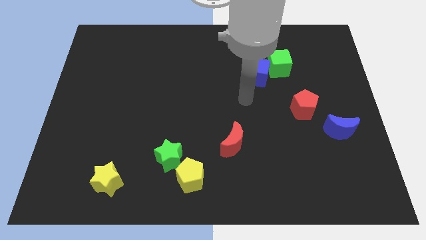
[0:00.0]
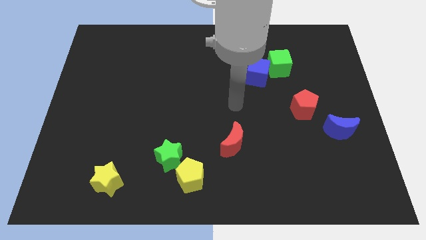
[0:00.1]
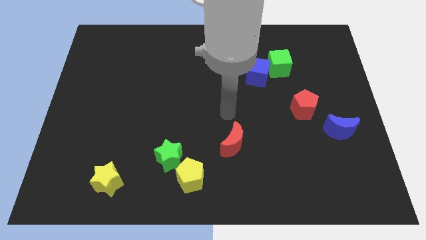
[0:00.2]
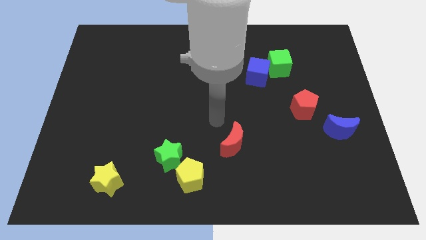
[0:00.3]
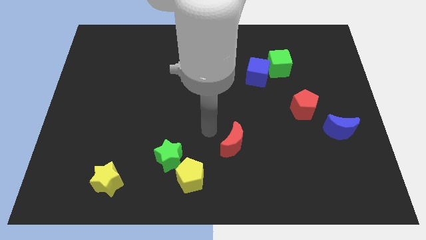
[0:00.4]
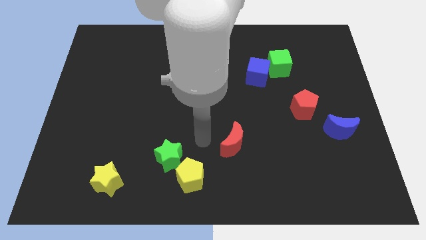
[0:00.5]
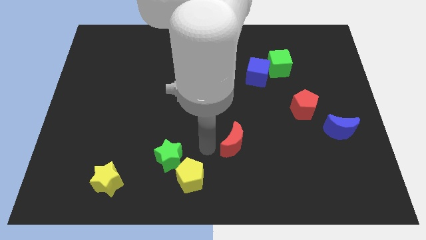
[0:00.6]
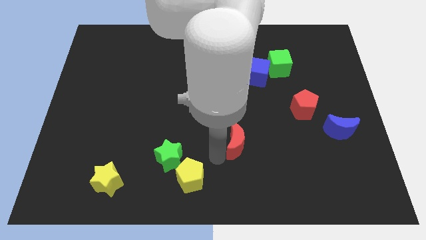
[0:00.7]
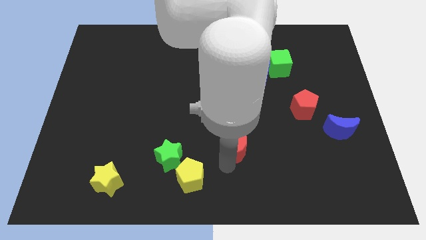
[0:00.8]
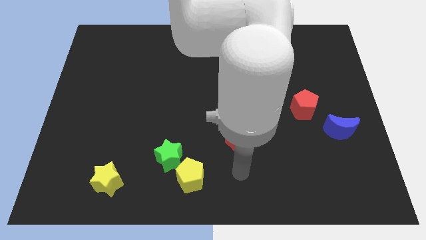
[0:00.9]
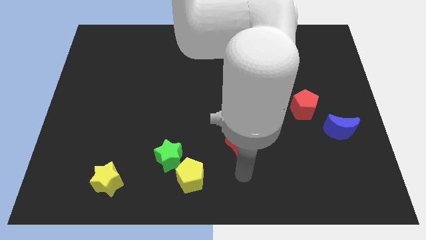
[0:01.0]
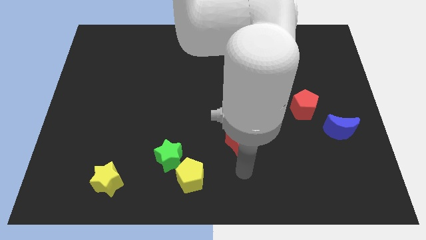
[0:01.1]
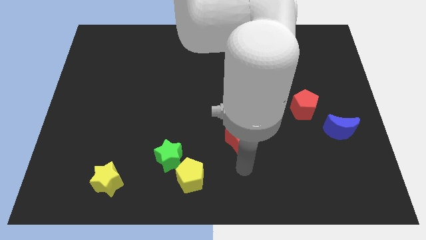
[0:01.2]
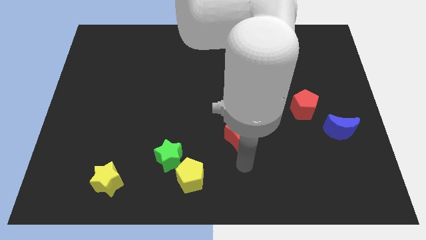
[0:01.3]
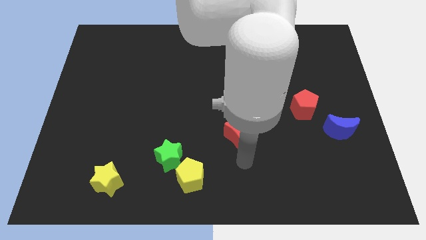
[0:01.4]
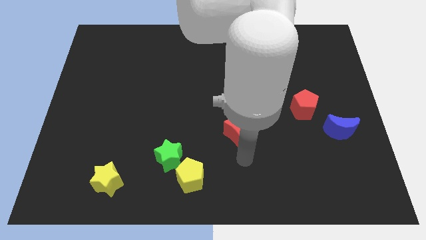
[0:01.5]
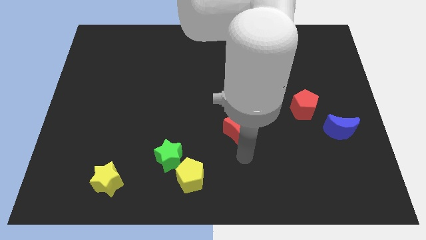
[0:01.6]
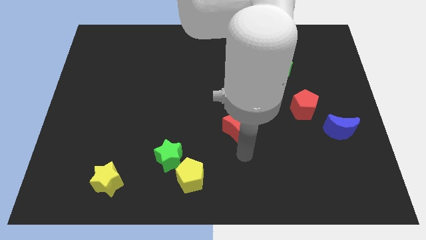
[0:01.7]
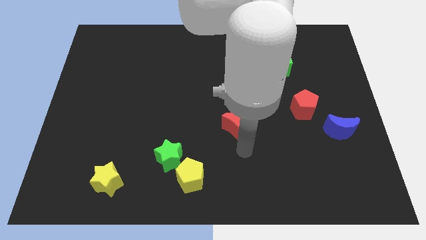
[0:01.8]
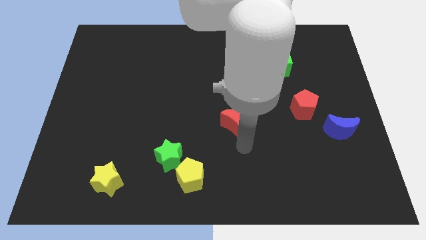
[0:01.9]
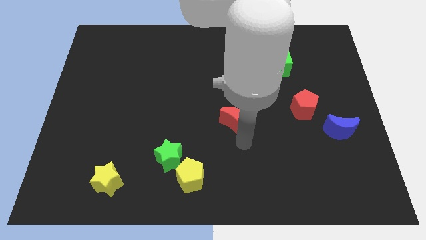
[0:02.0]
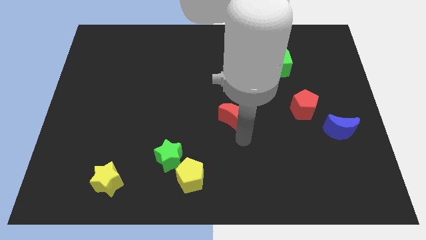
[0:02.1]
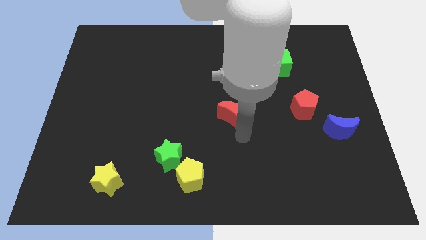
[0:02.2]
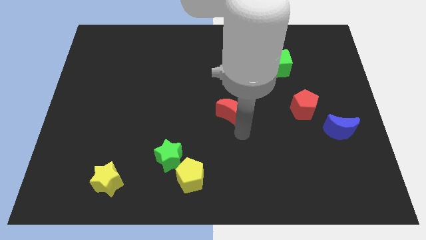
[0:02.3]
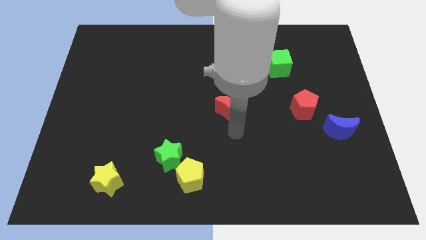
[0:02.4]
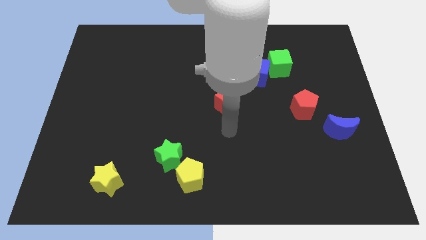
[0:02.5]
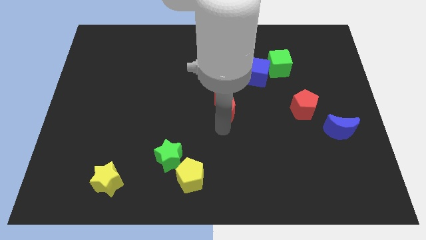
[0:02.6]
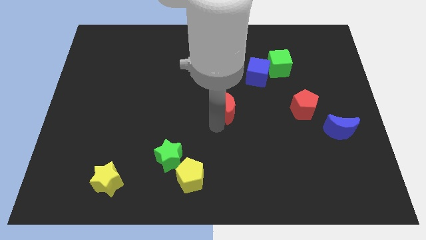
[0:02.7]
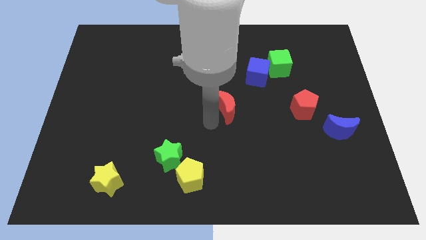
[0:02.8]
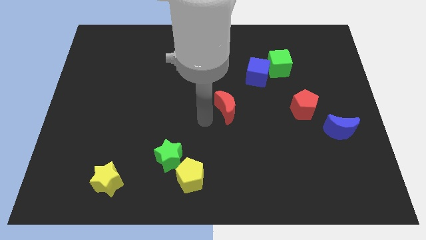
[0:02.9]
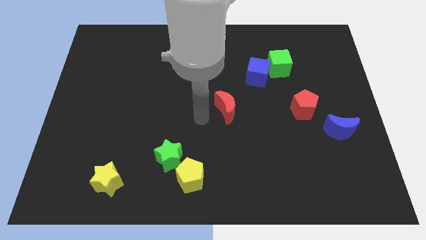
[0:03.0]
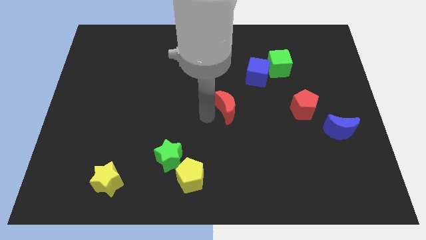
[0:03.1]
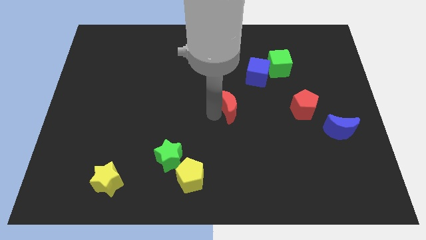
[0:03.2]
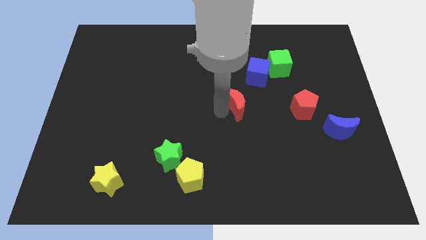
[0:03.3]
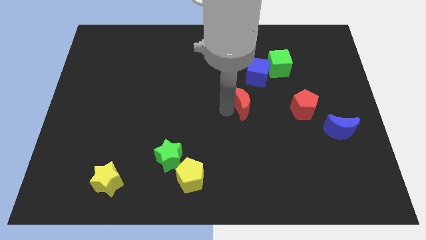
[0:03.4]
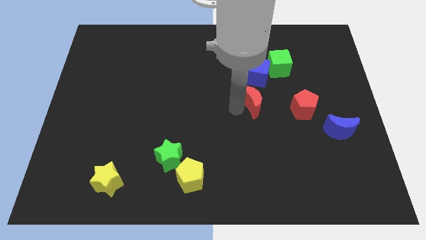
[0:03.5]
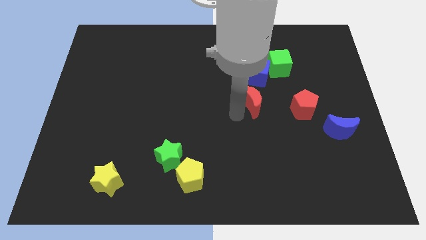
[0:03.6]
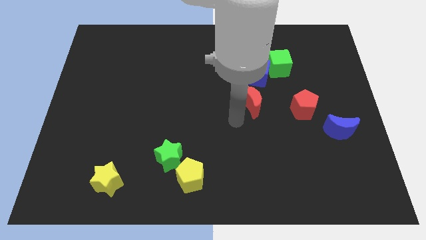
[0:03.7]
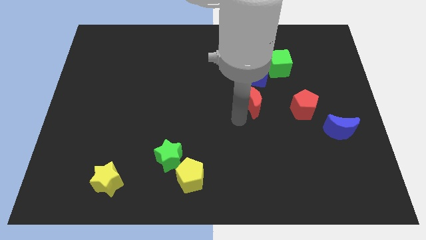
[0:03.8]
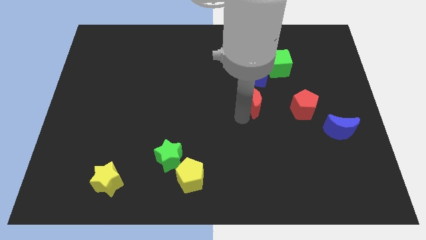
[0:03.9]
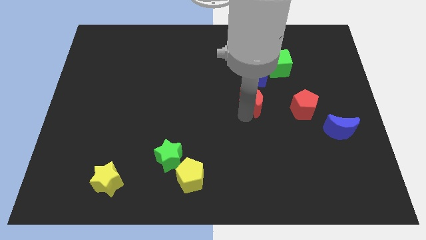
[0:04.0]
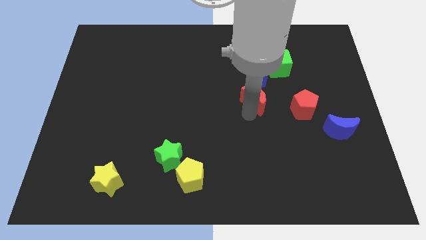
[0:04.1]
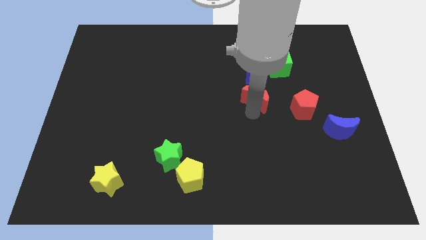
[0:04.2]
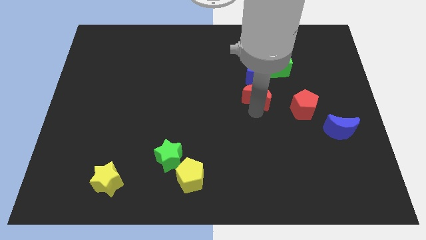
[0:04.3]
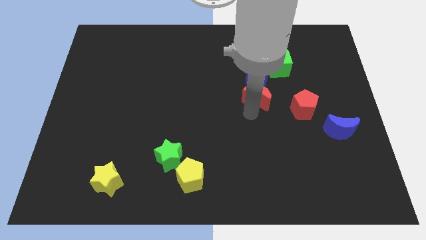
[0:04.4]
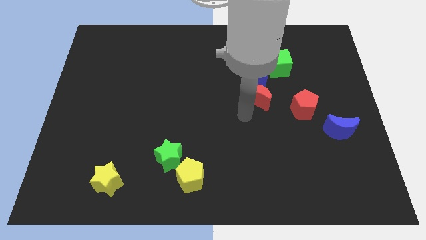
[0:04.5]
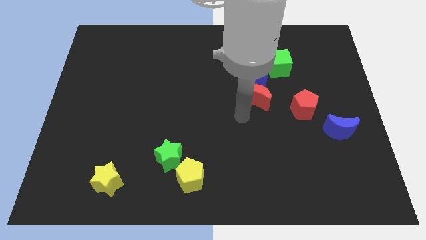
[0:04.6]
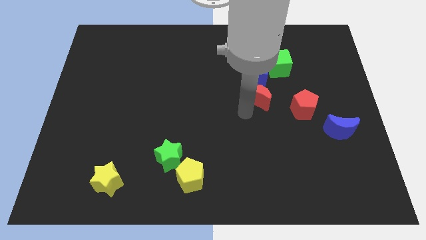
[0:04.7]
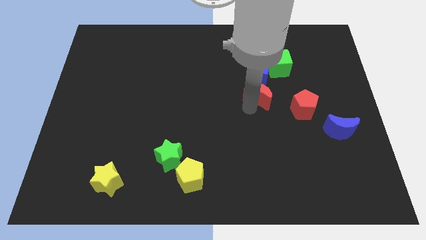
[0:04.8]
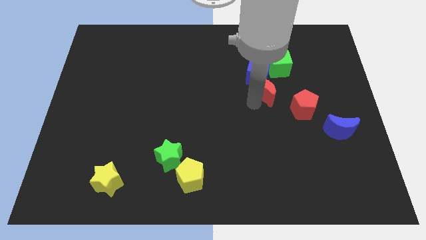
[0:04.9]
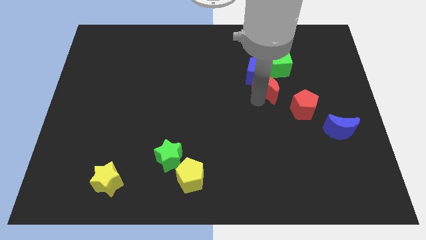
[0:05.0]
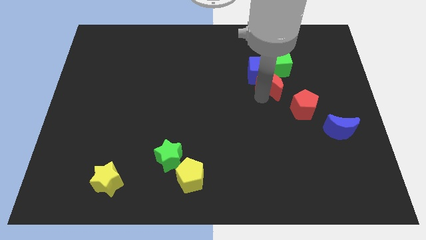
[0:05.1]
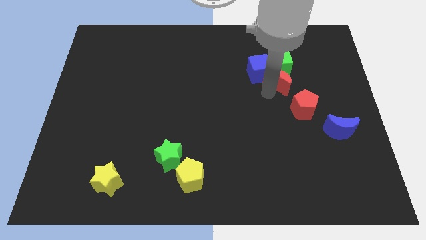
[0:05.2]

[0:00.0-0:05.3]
move the red moon to the green cube

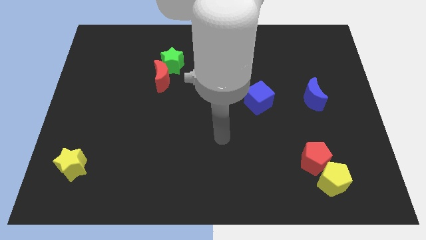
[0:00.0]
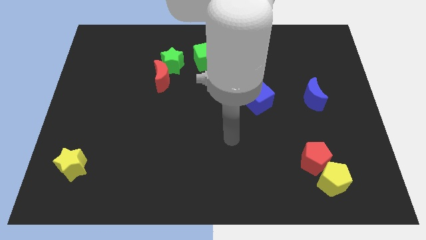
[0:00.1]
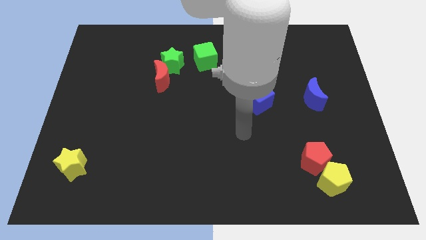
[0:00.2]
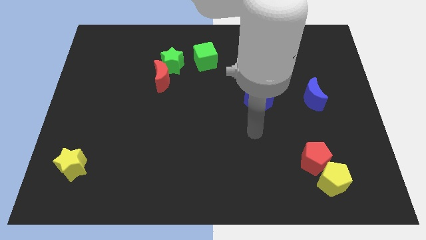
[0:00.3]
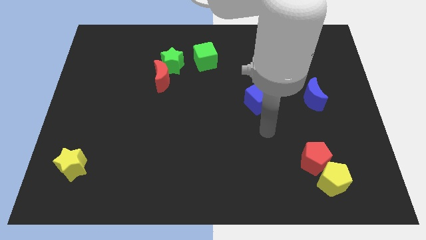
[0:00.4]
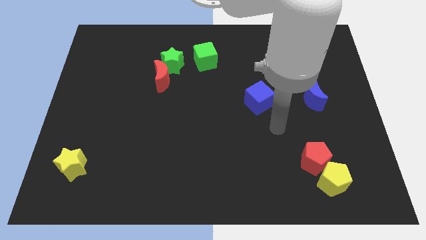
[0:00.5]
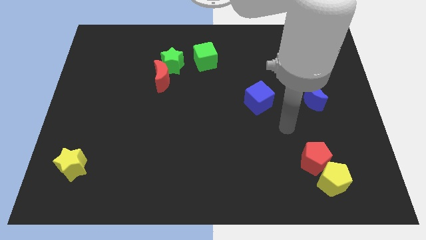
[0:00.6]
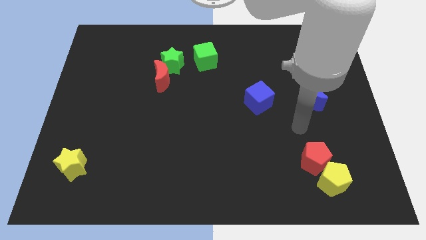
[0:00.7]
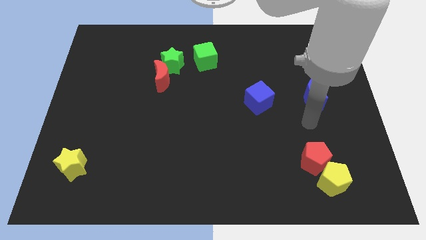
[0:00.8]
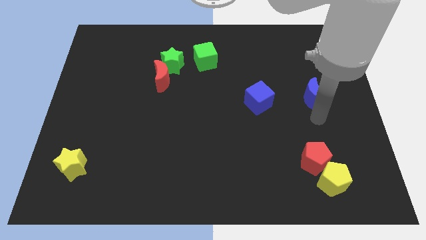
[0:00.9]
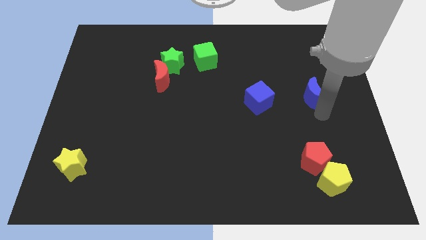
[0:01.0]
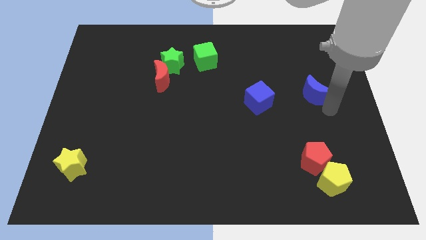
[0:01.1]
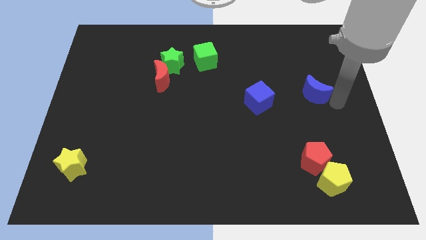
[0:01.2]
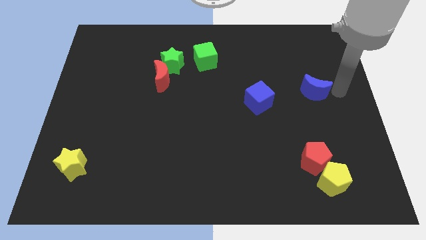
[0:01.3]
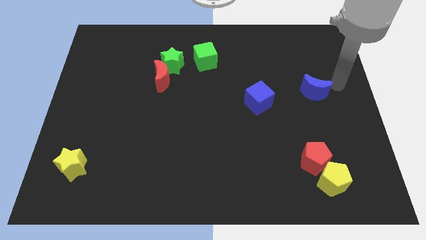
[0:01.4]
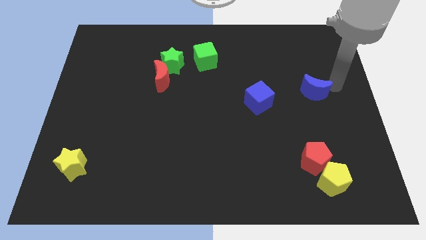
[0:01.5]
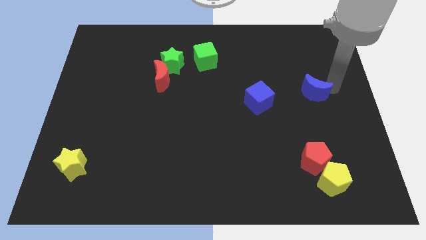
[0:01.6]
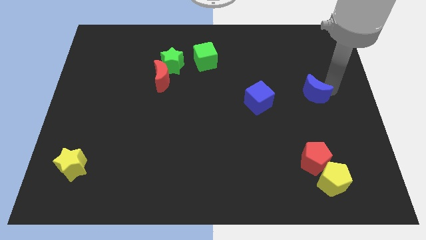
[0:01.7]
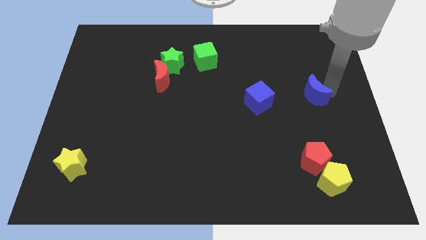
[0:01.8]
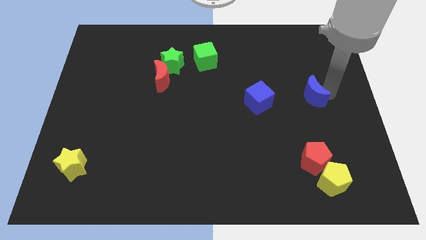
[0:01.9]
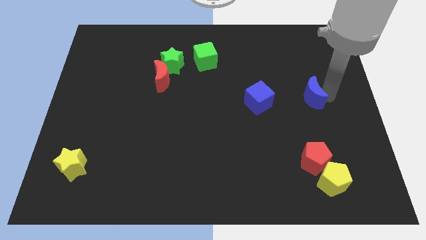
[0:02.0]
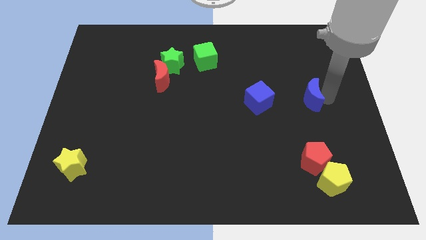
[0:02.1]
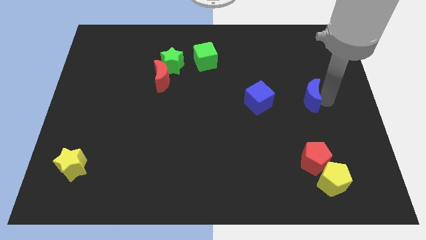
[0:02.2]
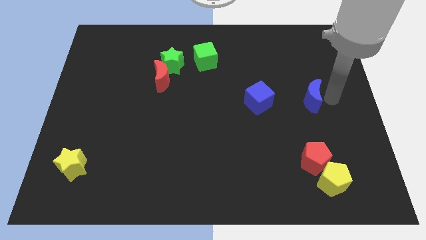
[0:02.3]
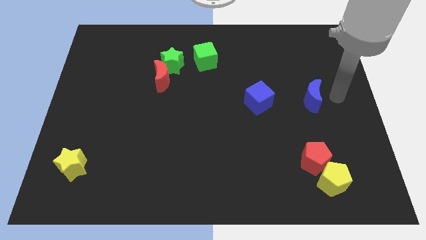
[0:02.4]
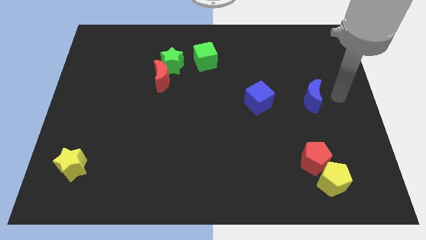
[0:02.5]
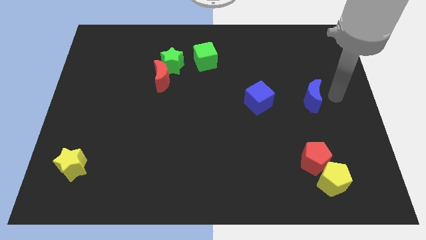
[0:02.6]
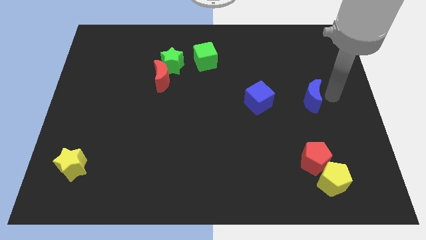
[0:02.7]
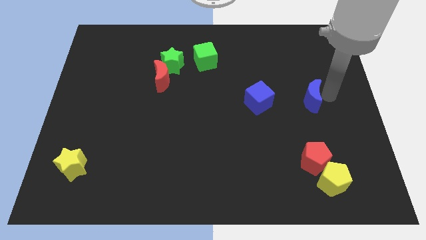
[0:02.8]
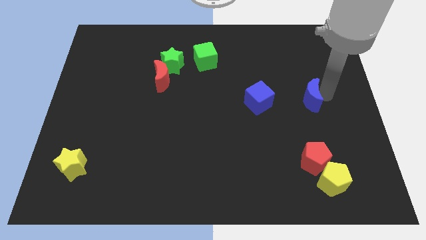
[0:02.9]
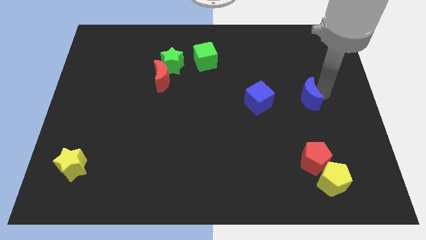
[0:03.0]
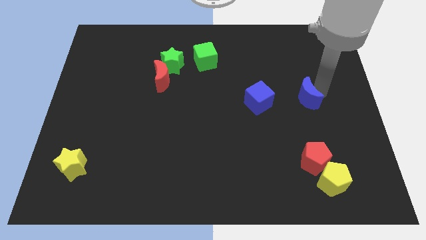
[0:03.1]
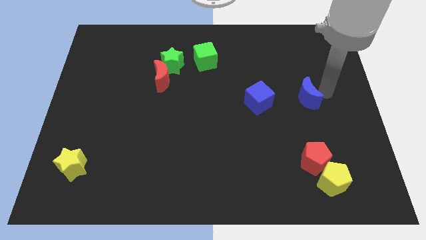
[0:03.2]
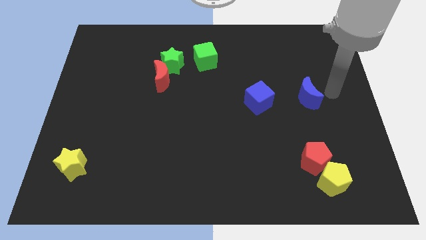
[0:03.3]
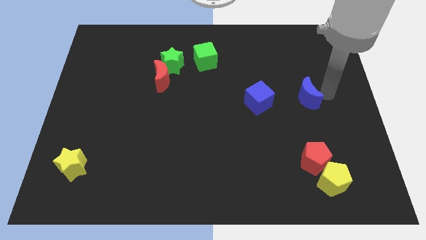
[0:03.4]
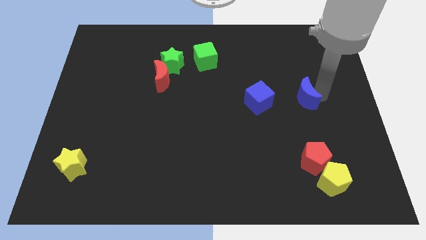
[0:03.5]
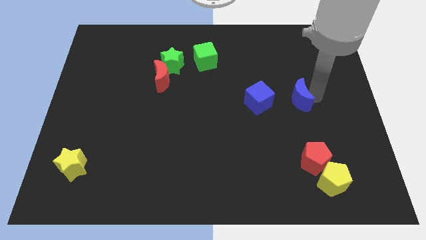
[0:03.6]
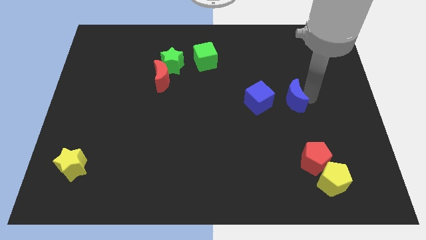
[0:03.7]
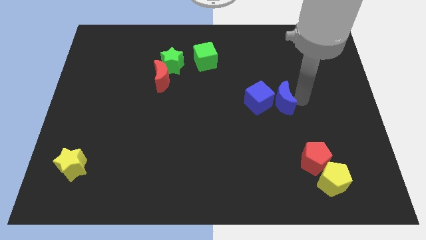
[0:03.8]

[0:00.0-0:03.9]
move the blue moon close to the blue cube
